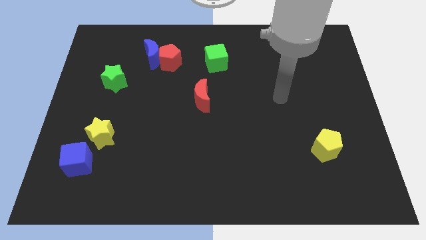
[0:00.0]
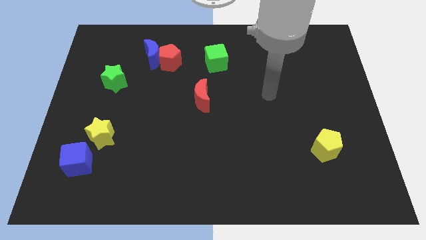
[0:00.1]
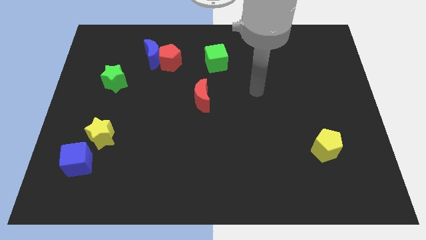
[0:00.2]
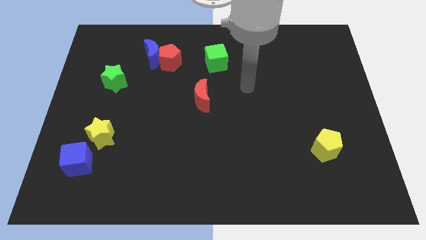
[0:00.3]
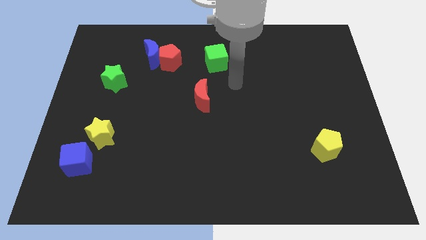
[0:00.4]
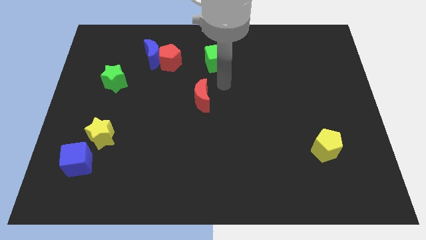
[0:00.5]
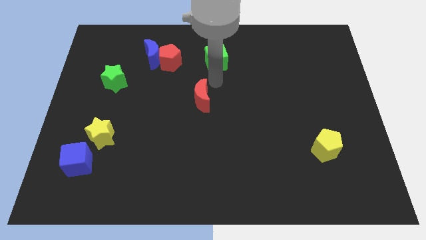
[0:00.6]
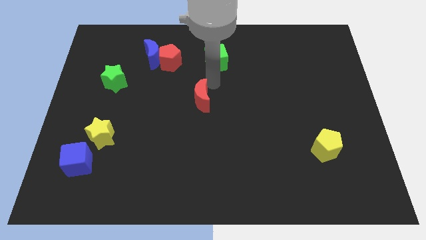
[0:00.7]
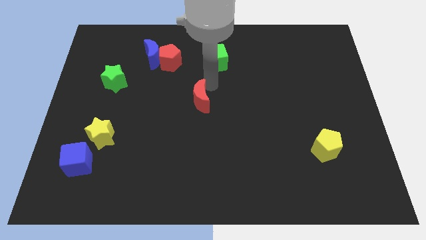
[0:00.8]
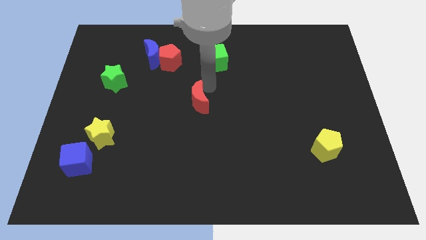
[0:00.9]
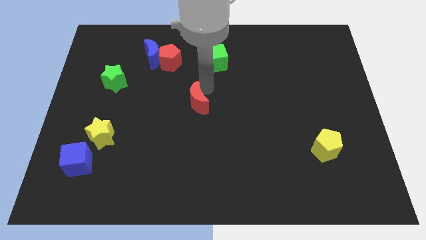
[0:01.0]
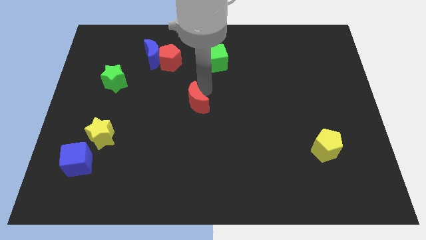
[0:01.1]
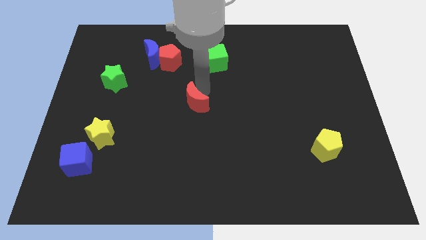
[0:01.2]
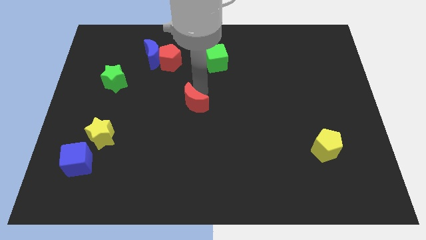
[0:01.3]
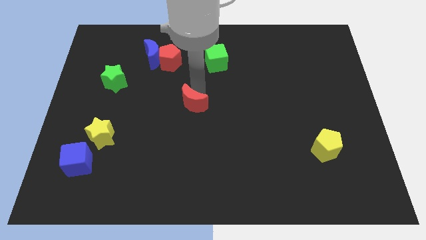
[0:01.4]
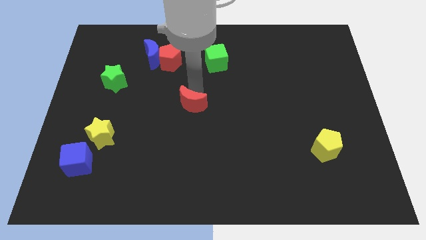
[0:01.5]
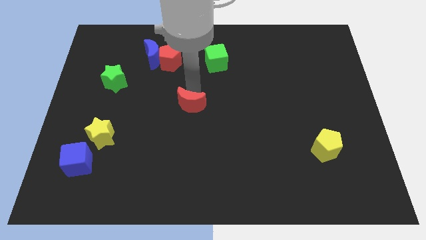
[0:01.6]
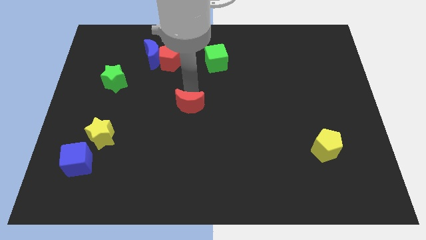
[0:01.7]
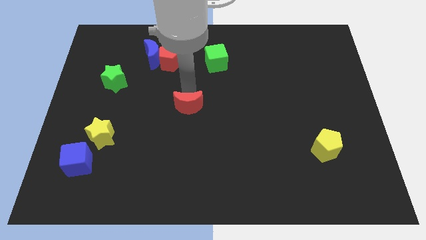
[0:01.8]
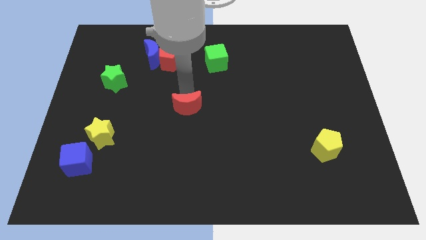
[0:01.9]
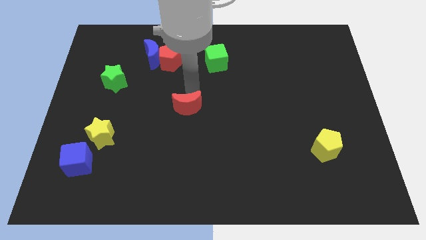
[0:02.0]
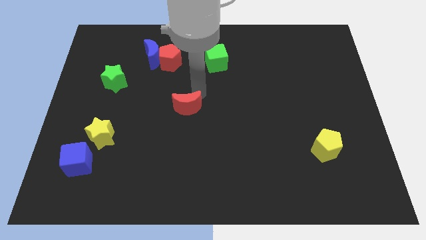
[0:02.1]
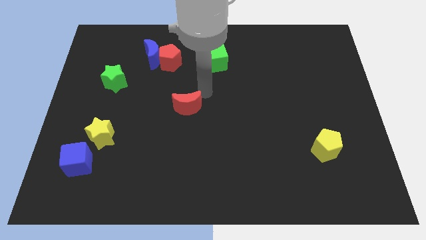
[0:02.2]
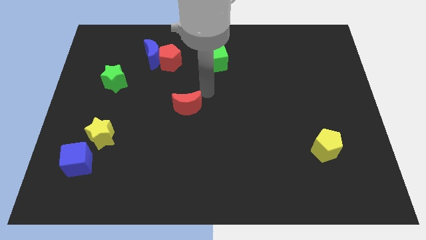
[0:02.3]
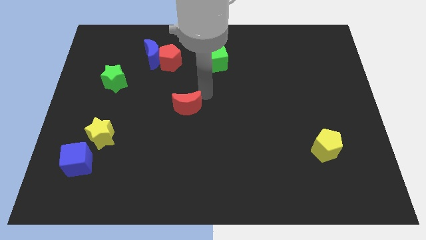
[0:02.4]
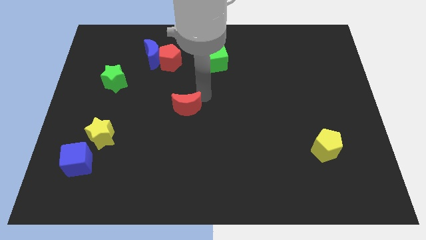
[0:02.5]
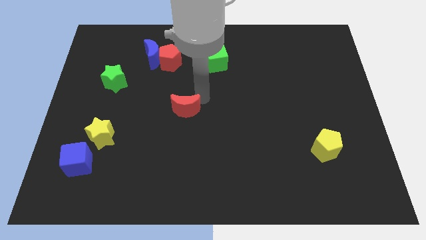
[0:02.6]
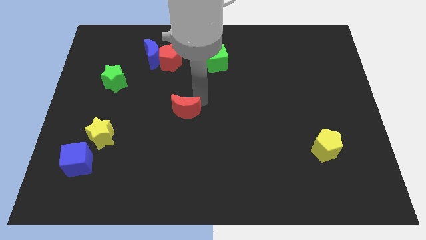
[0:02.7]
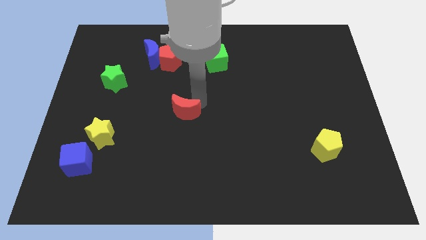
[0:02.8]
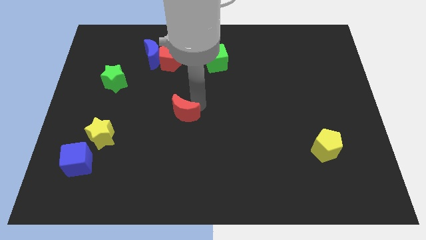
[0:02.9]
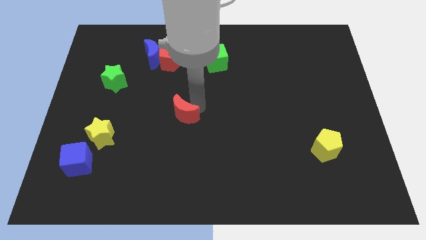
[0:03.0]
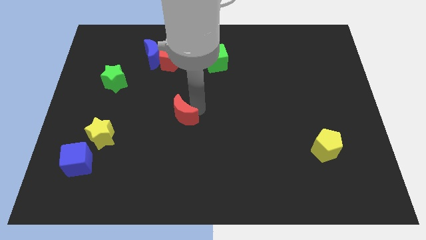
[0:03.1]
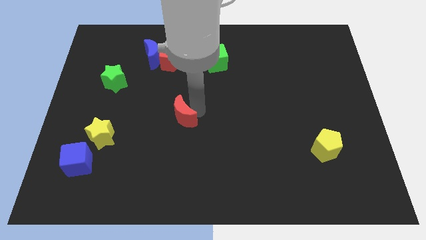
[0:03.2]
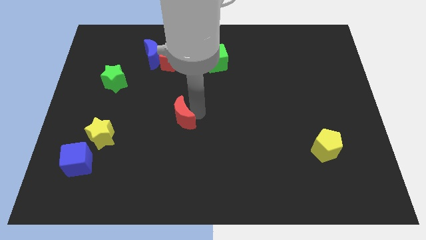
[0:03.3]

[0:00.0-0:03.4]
push the red moon a little bit diagonally down and to the left

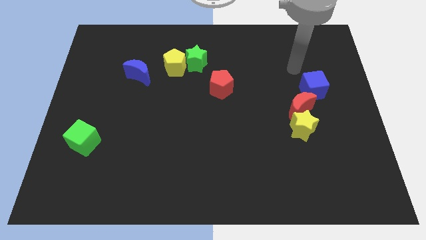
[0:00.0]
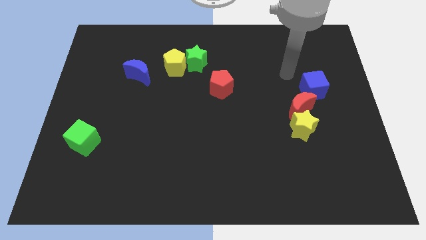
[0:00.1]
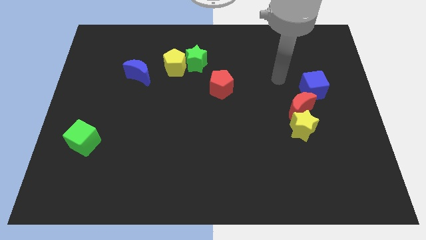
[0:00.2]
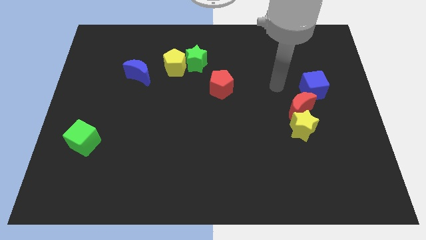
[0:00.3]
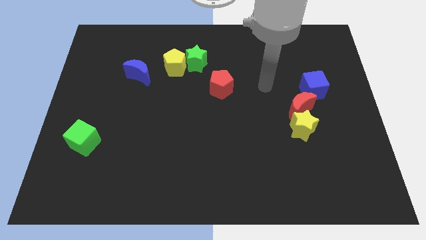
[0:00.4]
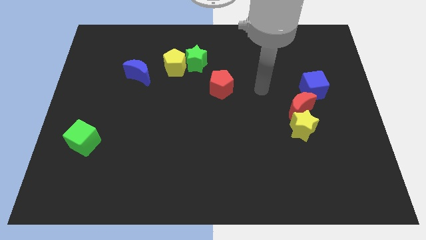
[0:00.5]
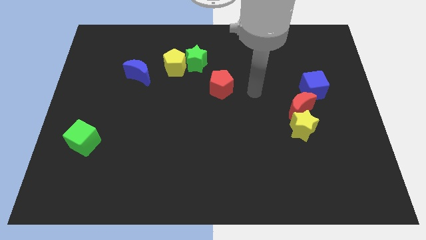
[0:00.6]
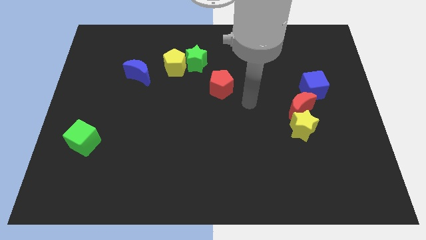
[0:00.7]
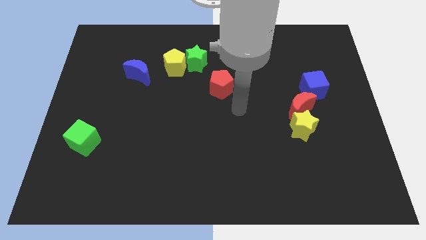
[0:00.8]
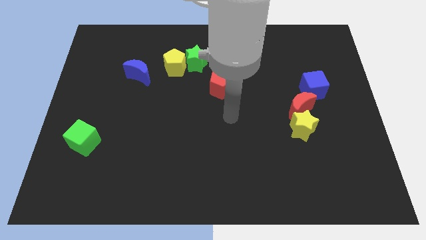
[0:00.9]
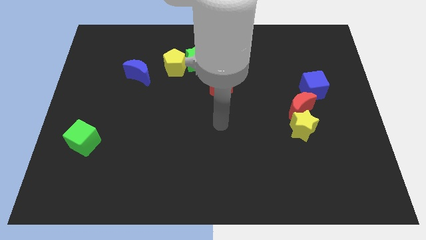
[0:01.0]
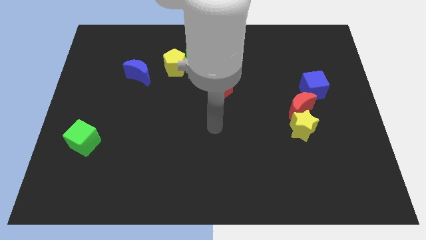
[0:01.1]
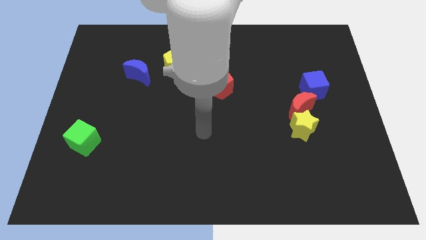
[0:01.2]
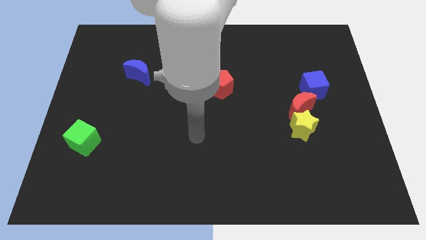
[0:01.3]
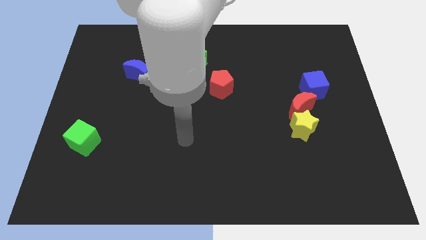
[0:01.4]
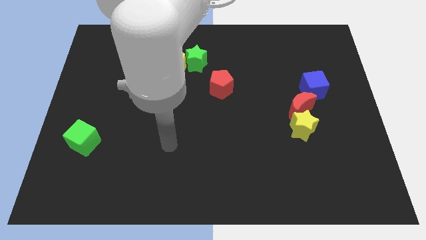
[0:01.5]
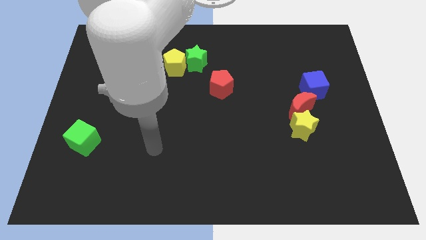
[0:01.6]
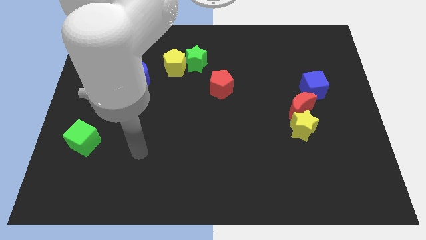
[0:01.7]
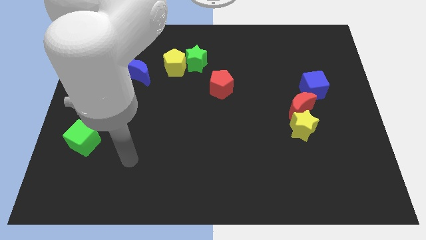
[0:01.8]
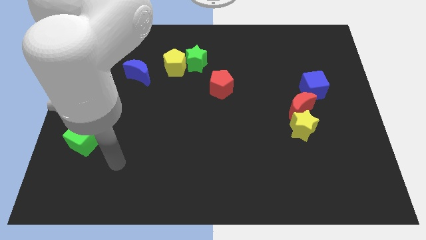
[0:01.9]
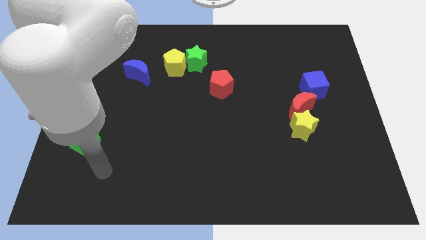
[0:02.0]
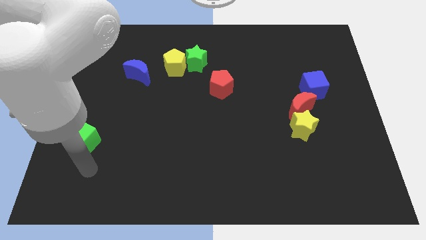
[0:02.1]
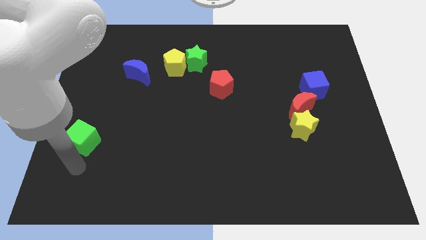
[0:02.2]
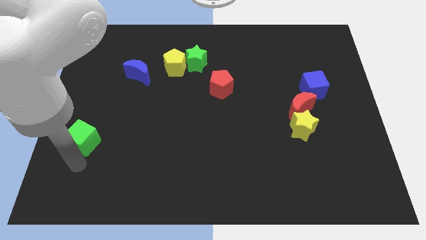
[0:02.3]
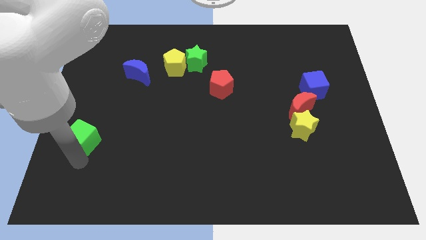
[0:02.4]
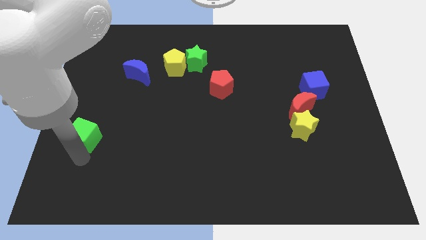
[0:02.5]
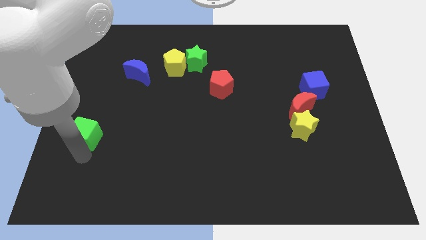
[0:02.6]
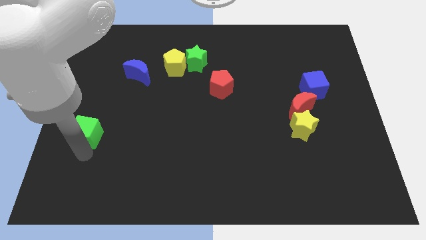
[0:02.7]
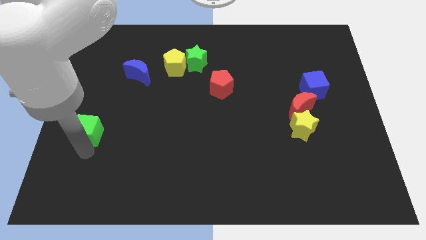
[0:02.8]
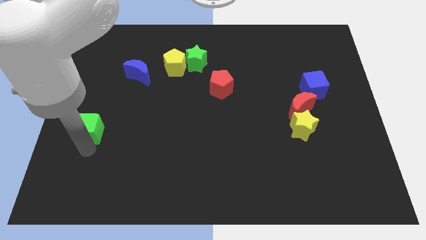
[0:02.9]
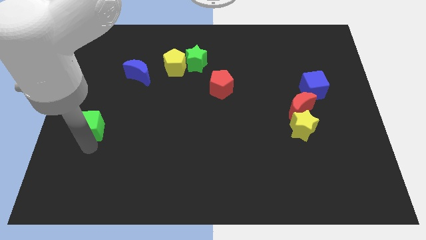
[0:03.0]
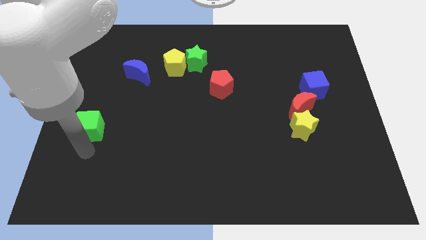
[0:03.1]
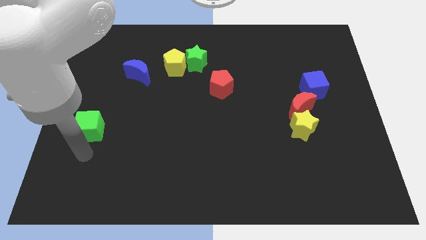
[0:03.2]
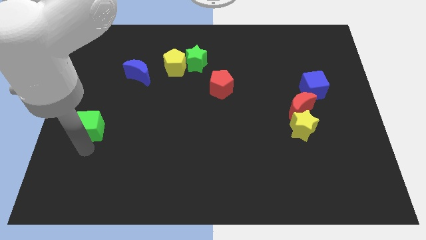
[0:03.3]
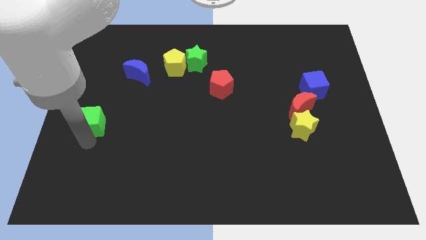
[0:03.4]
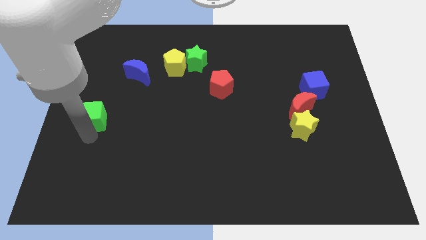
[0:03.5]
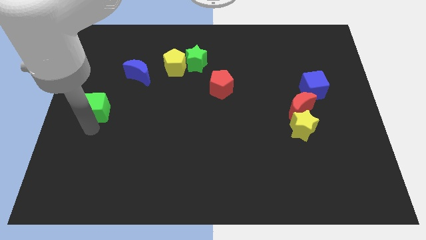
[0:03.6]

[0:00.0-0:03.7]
push the green cube up a little

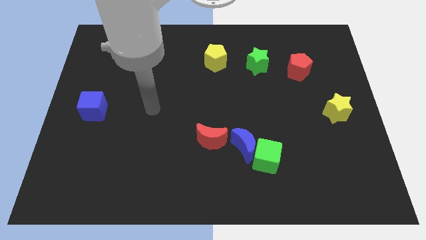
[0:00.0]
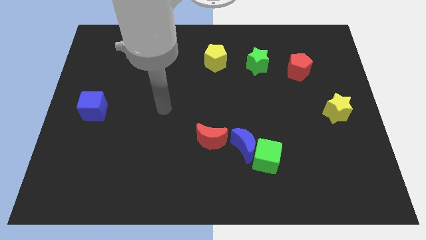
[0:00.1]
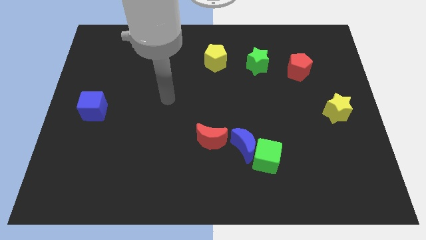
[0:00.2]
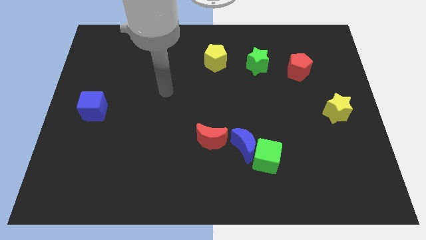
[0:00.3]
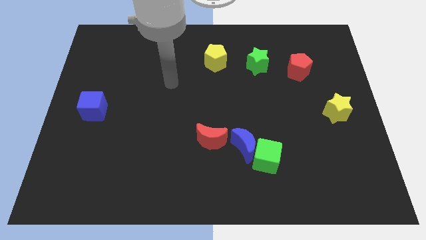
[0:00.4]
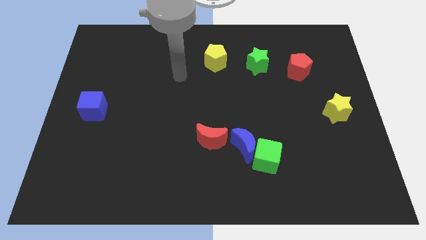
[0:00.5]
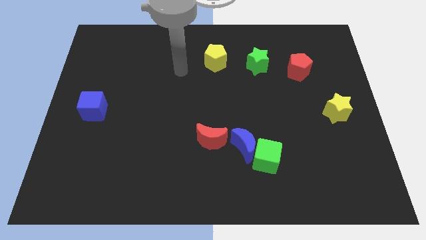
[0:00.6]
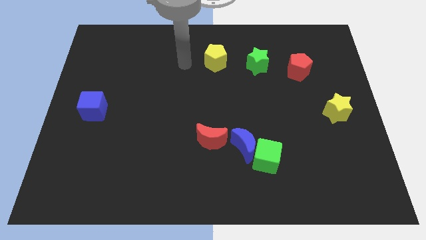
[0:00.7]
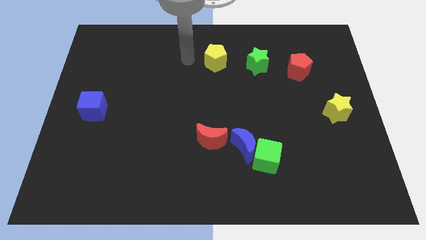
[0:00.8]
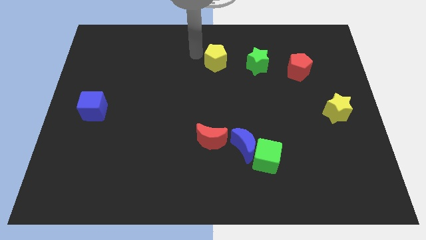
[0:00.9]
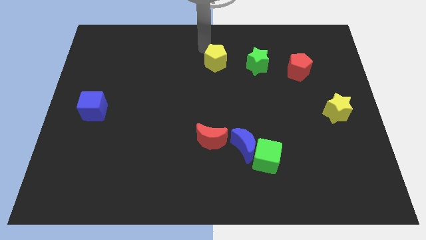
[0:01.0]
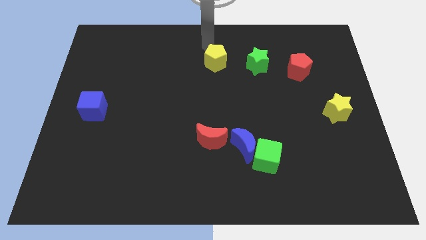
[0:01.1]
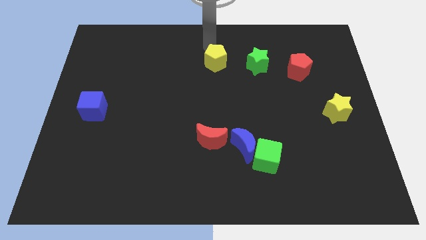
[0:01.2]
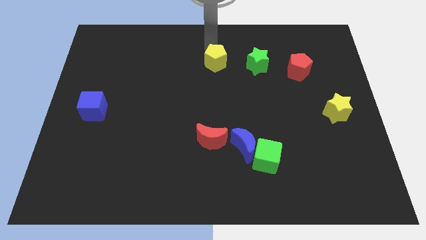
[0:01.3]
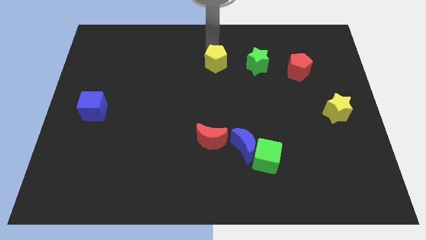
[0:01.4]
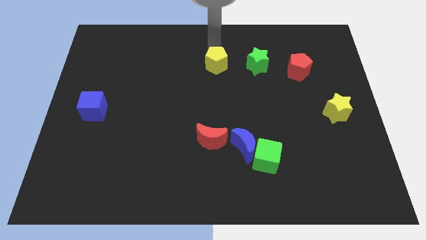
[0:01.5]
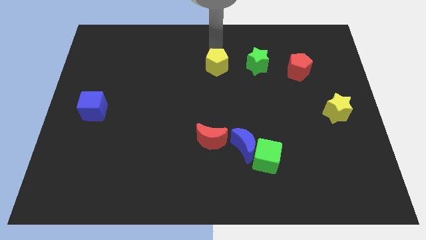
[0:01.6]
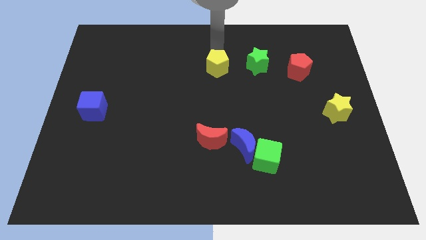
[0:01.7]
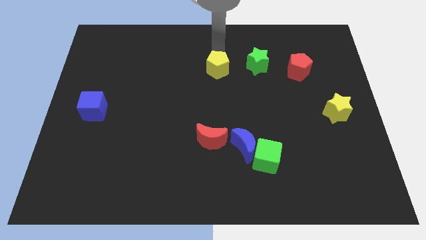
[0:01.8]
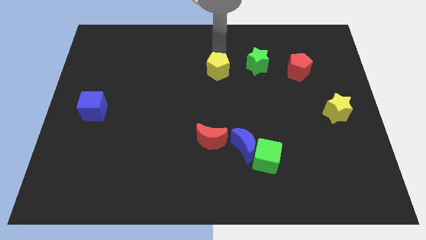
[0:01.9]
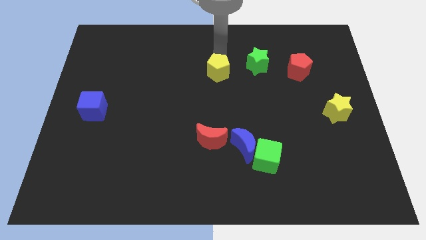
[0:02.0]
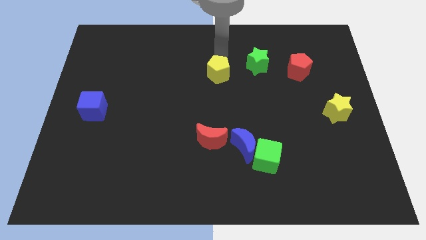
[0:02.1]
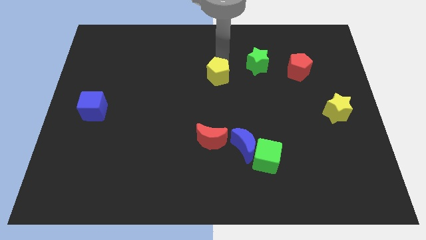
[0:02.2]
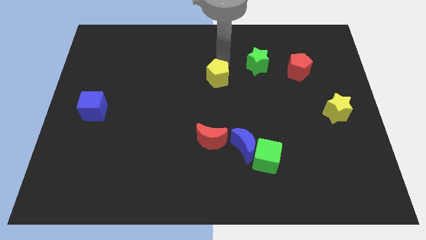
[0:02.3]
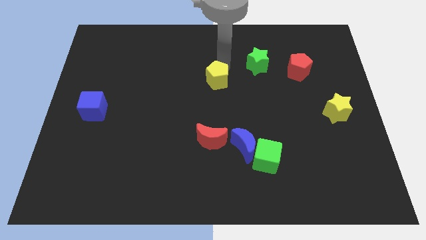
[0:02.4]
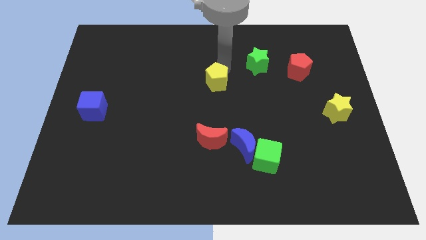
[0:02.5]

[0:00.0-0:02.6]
slightly move the yellow pentagon down
